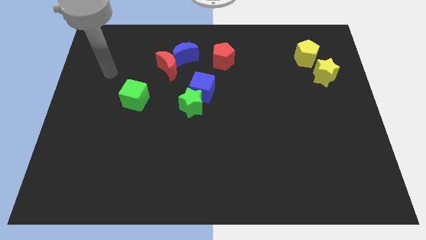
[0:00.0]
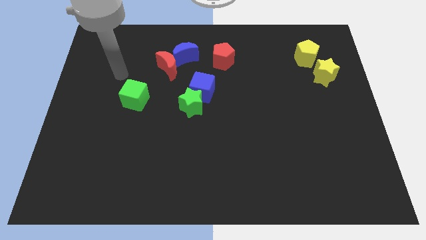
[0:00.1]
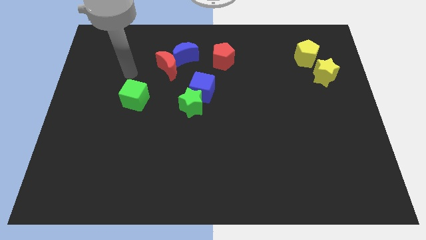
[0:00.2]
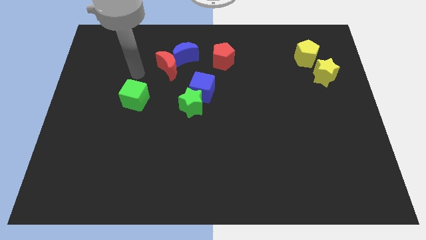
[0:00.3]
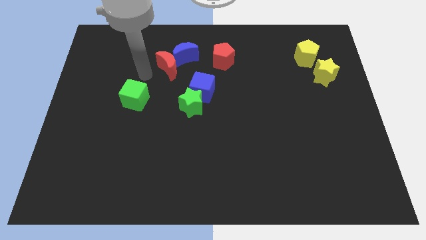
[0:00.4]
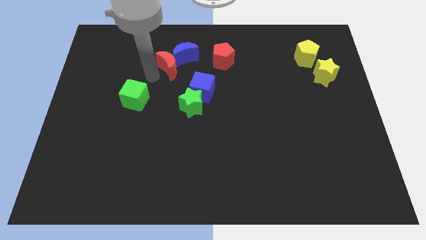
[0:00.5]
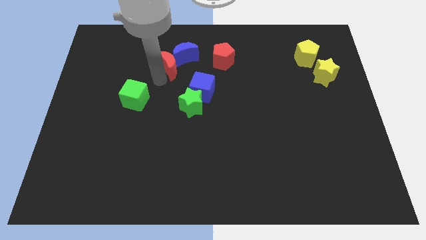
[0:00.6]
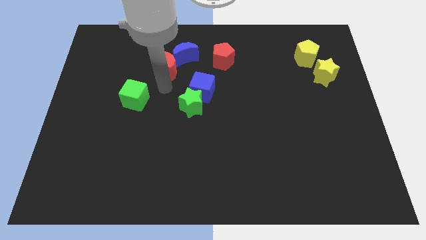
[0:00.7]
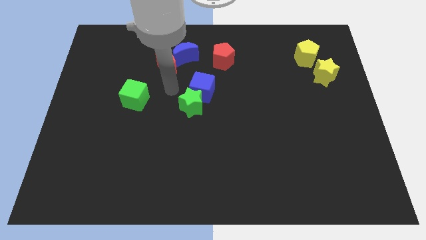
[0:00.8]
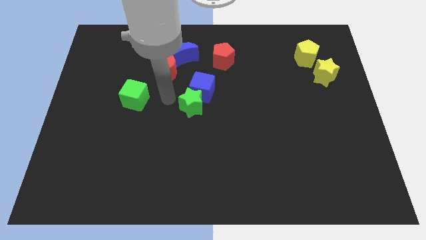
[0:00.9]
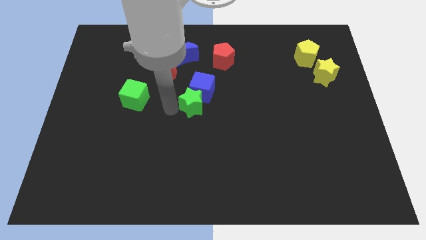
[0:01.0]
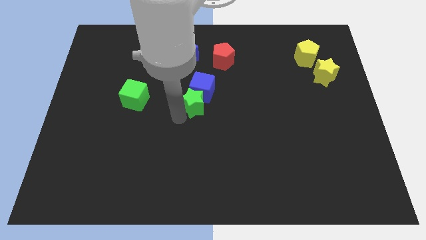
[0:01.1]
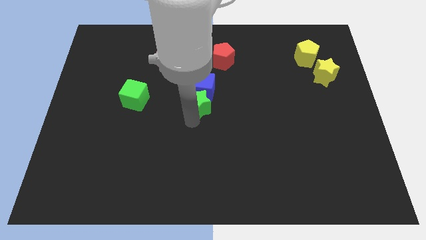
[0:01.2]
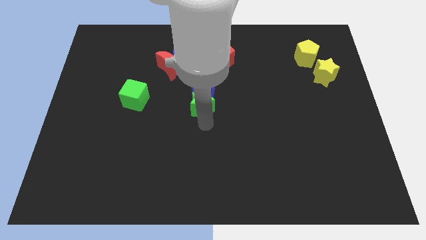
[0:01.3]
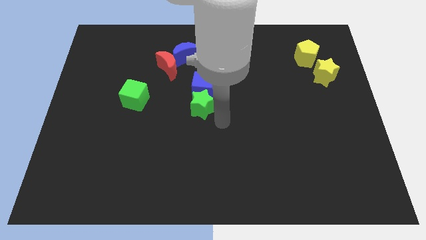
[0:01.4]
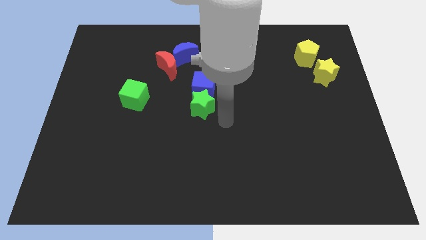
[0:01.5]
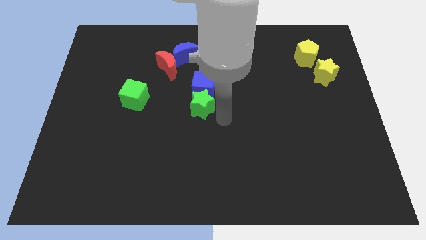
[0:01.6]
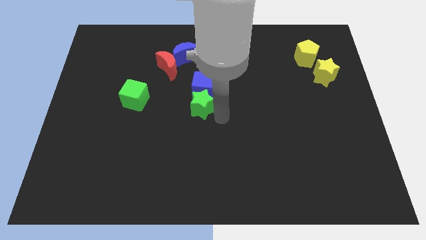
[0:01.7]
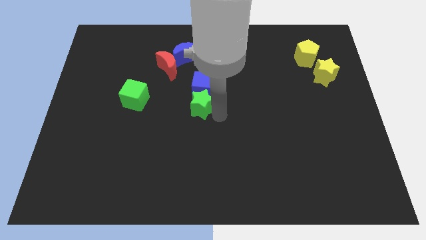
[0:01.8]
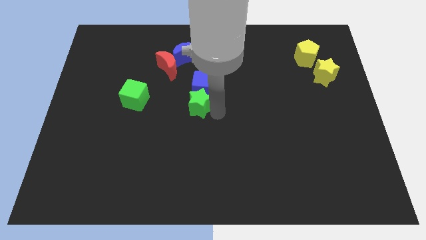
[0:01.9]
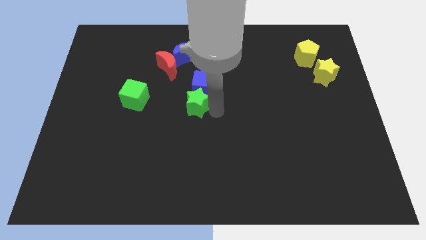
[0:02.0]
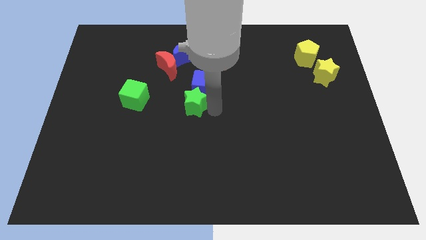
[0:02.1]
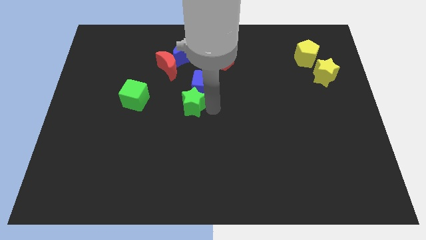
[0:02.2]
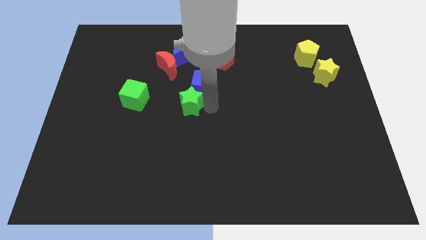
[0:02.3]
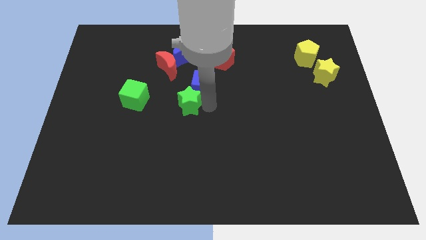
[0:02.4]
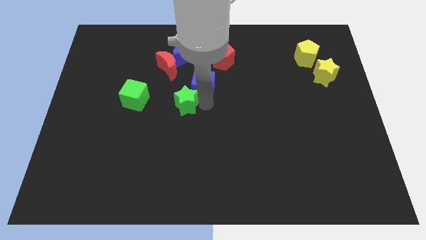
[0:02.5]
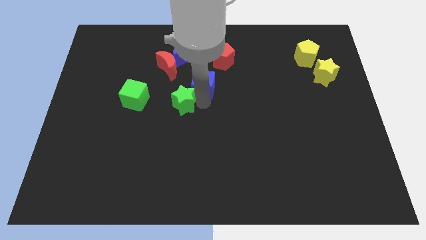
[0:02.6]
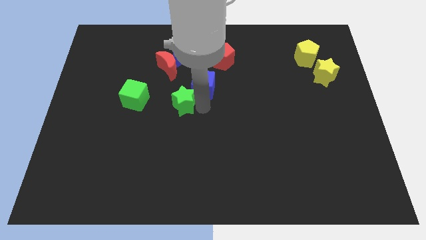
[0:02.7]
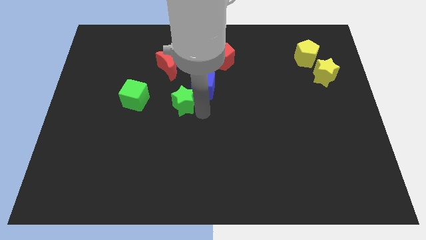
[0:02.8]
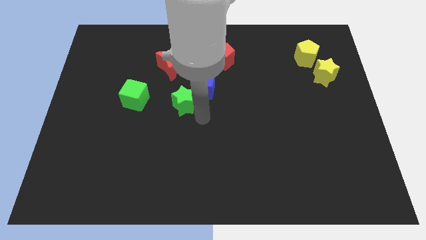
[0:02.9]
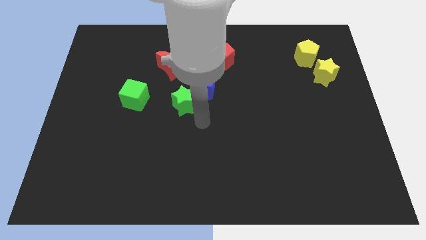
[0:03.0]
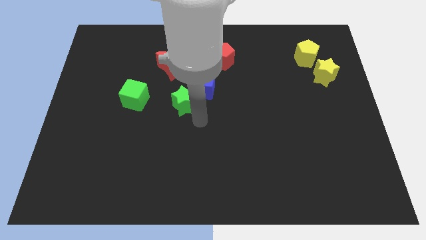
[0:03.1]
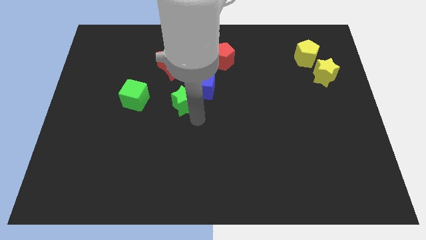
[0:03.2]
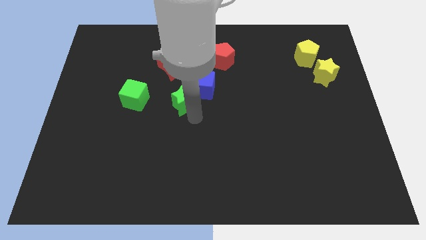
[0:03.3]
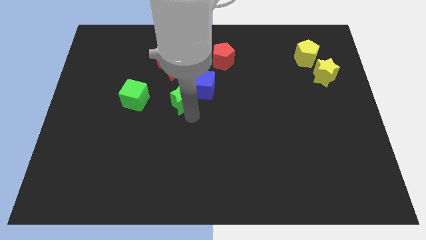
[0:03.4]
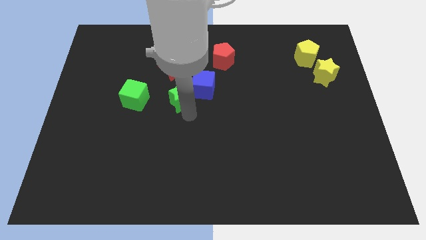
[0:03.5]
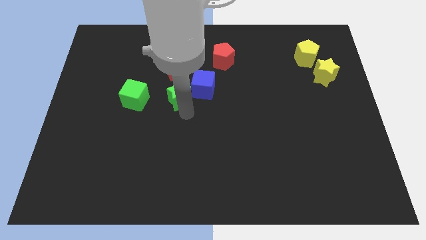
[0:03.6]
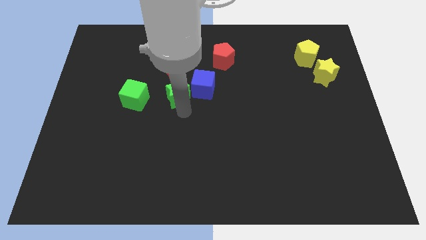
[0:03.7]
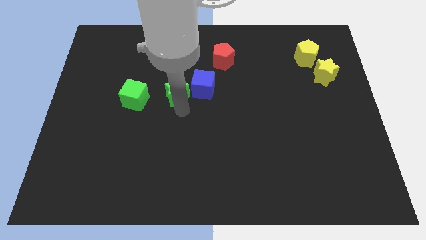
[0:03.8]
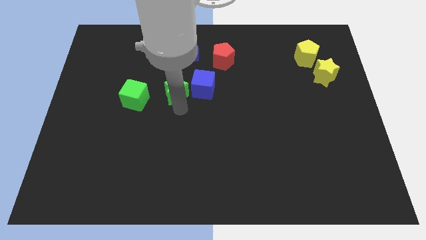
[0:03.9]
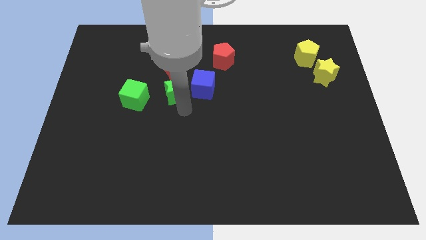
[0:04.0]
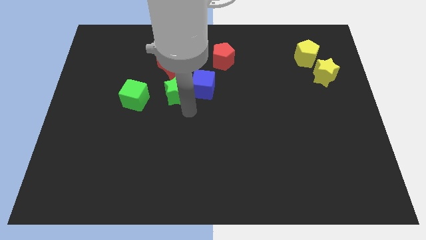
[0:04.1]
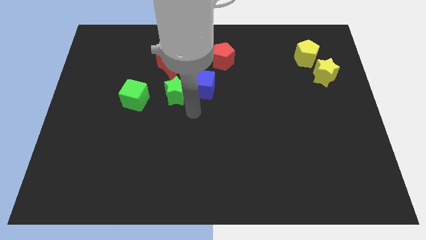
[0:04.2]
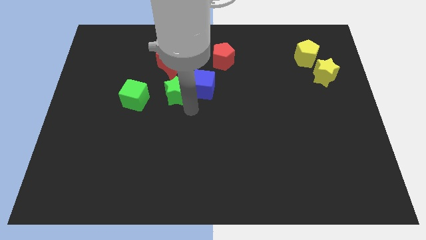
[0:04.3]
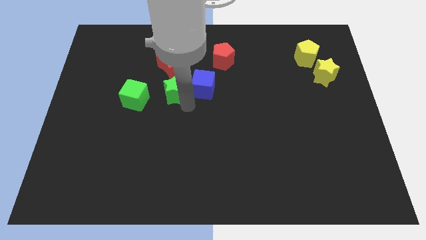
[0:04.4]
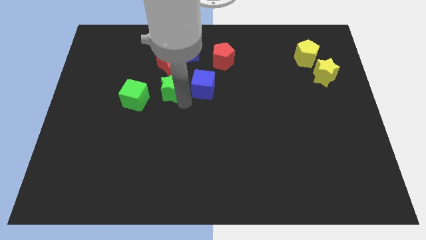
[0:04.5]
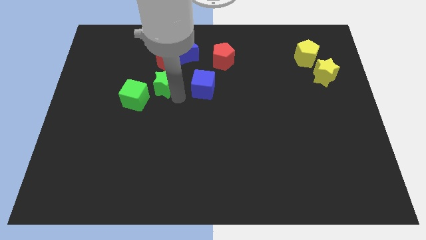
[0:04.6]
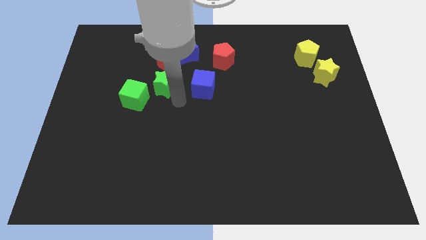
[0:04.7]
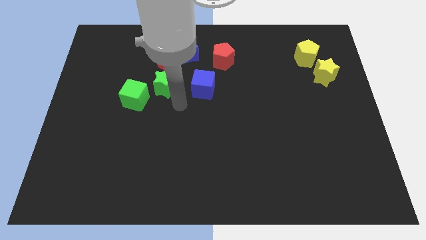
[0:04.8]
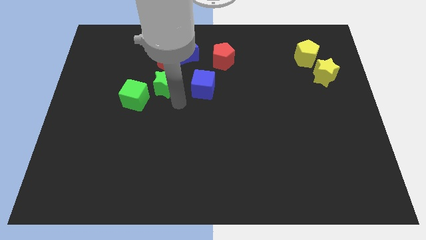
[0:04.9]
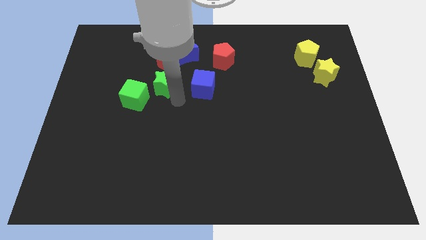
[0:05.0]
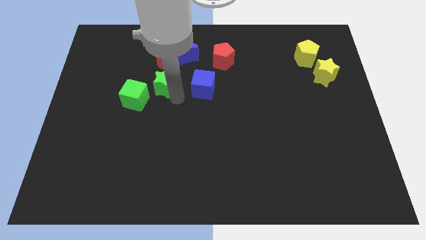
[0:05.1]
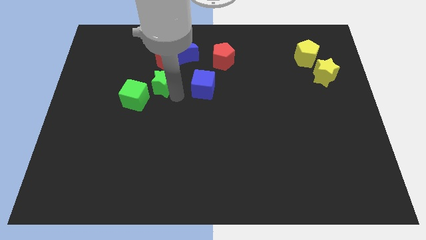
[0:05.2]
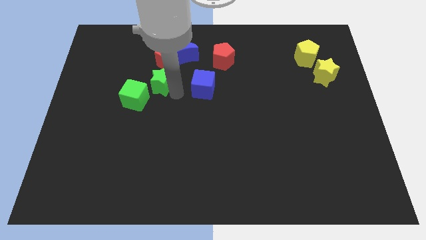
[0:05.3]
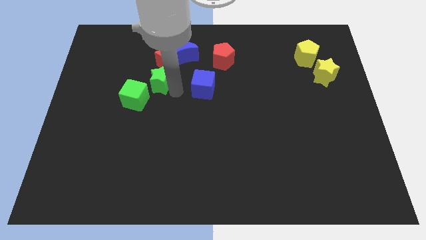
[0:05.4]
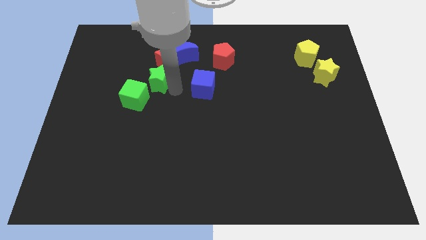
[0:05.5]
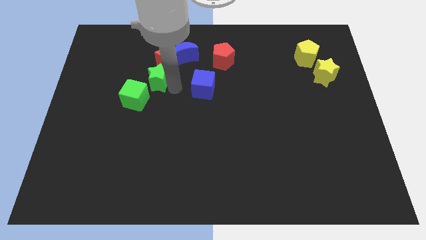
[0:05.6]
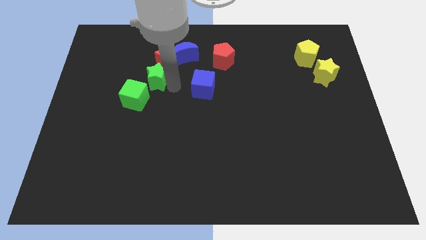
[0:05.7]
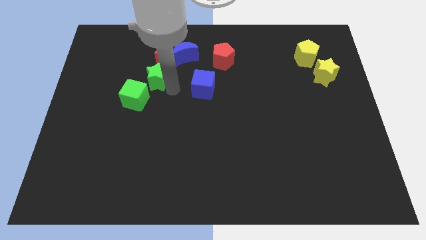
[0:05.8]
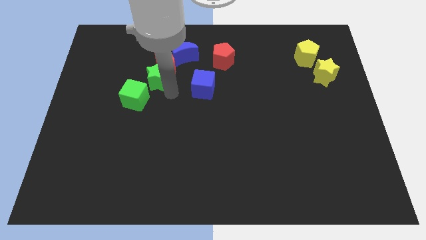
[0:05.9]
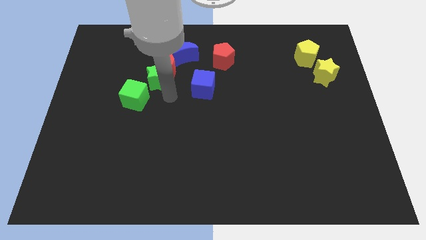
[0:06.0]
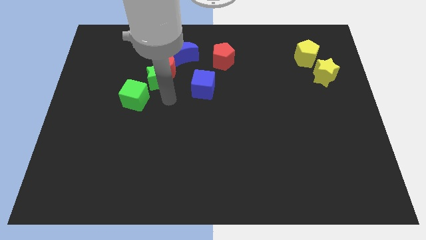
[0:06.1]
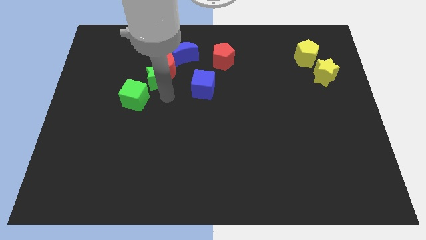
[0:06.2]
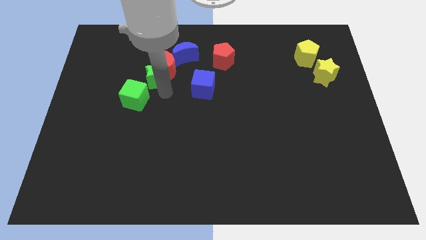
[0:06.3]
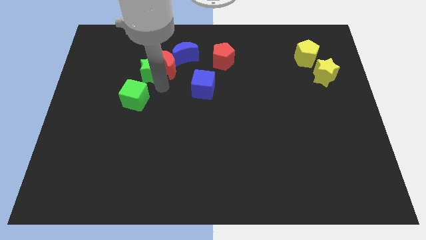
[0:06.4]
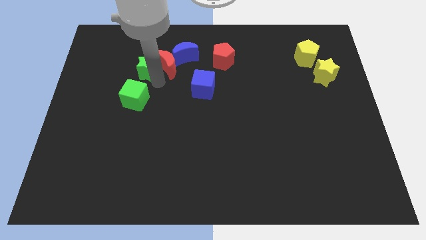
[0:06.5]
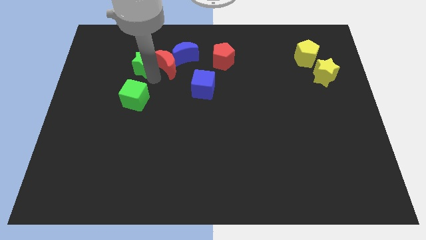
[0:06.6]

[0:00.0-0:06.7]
push the green star to the left of the blue moon
